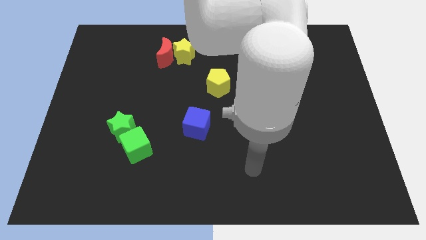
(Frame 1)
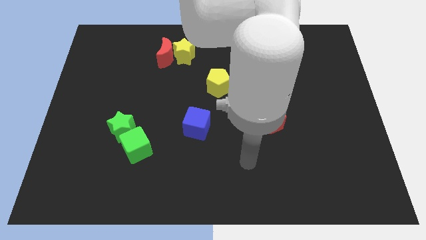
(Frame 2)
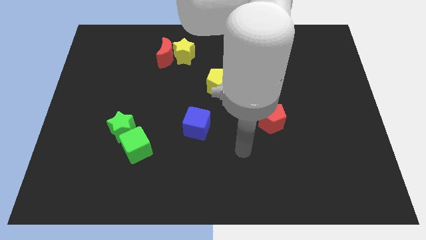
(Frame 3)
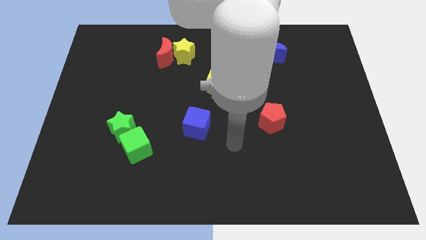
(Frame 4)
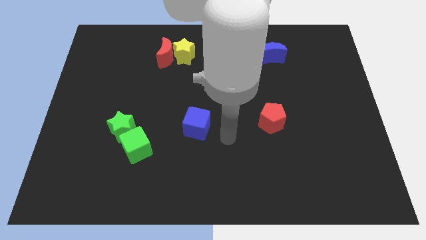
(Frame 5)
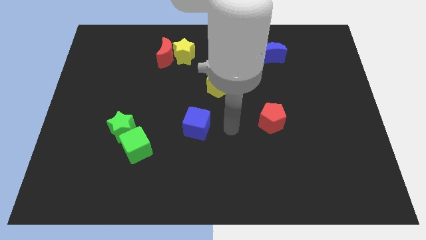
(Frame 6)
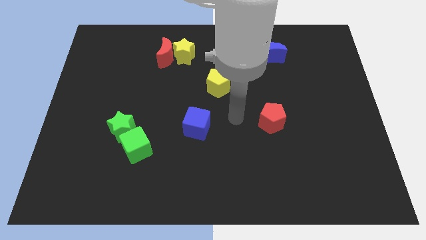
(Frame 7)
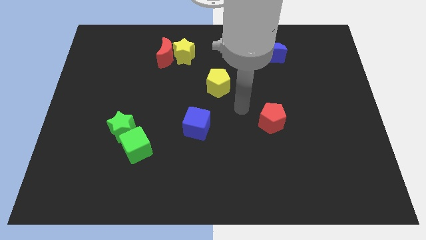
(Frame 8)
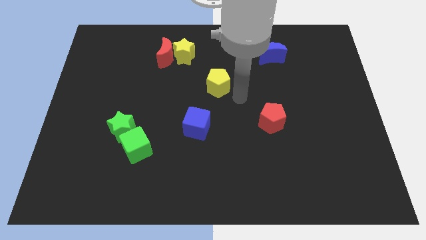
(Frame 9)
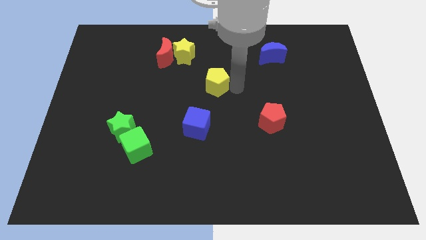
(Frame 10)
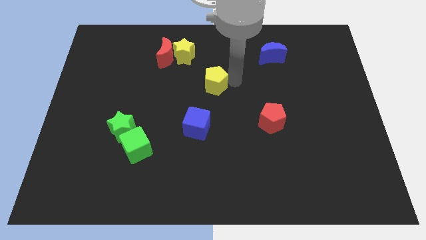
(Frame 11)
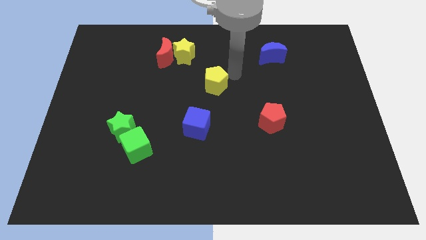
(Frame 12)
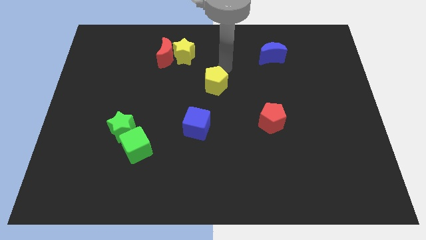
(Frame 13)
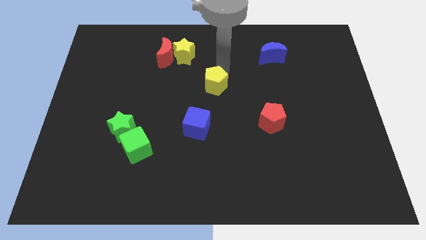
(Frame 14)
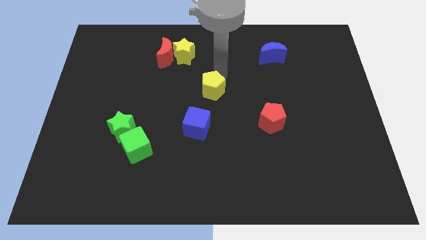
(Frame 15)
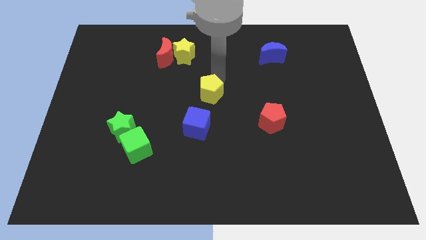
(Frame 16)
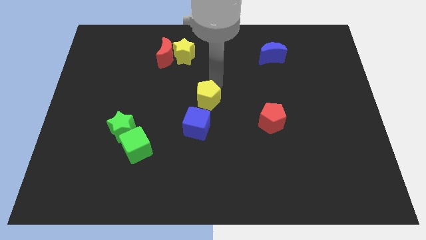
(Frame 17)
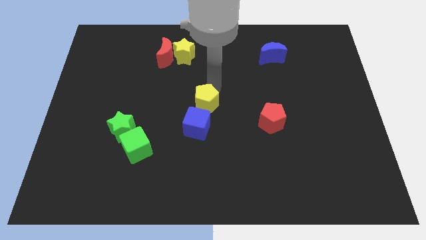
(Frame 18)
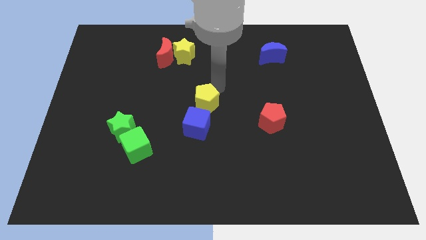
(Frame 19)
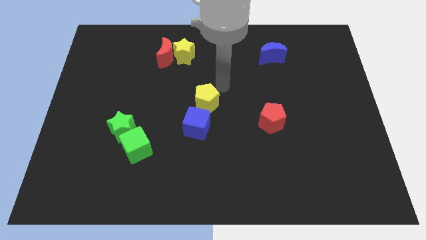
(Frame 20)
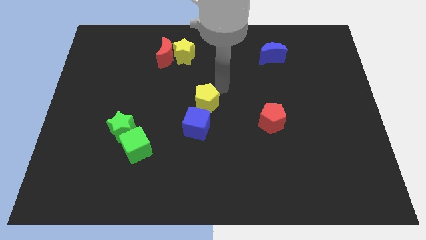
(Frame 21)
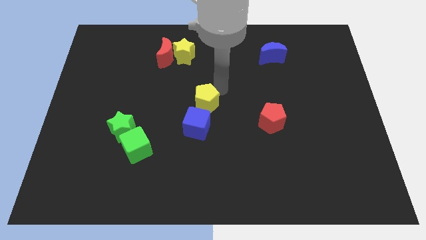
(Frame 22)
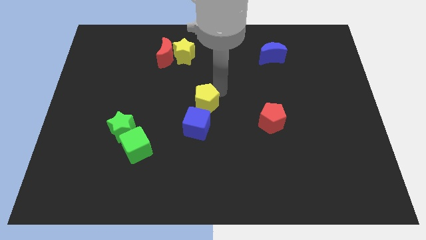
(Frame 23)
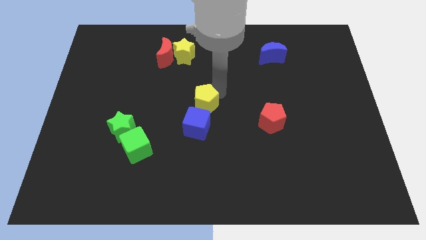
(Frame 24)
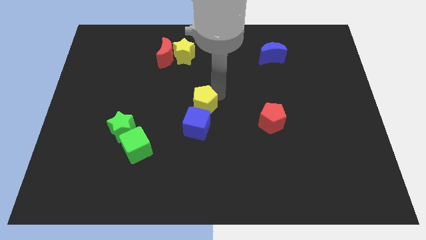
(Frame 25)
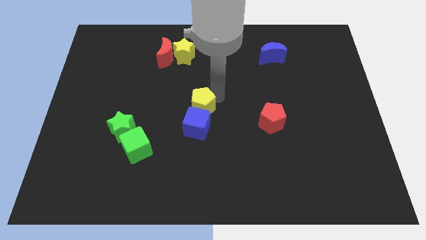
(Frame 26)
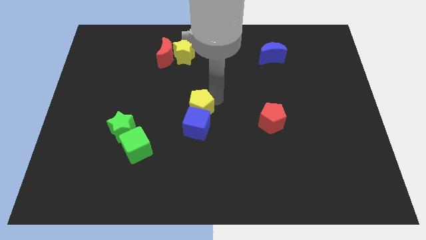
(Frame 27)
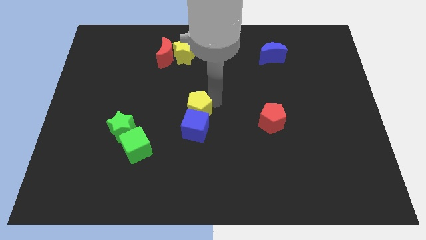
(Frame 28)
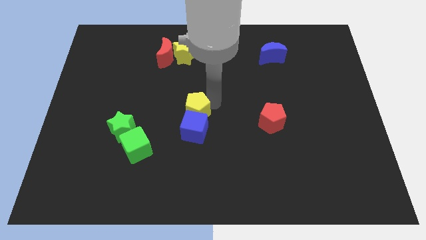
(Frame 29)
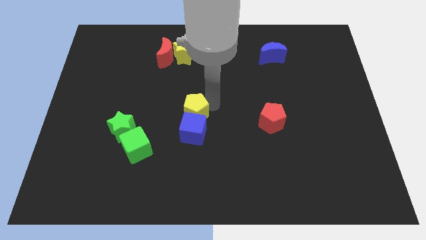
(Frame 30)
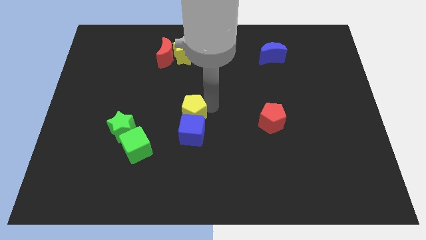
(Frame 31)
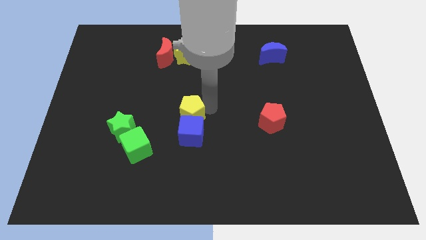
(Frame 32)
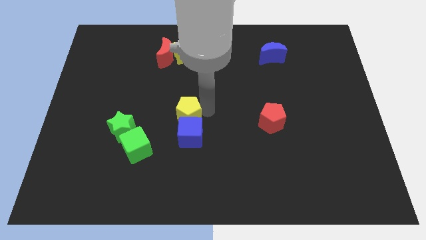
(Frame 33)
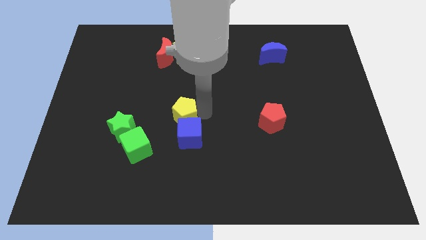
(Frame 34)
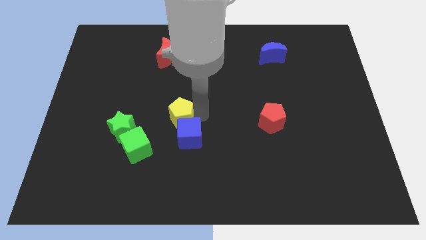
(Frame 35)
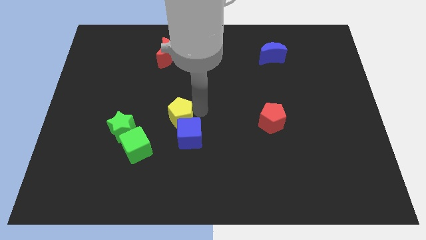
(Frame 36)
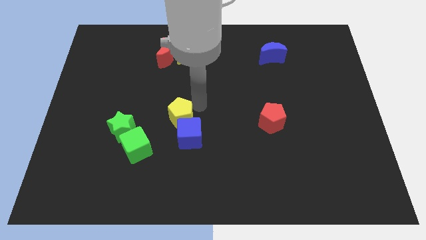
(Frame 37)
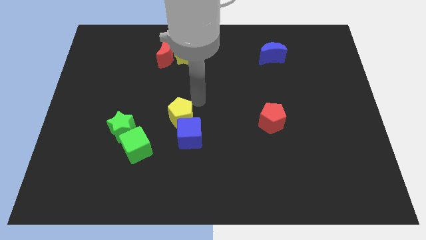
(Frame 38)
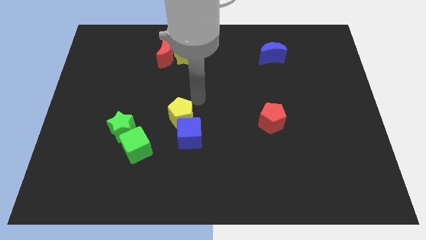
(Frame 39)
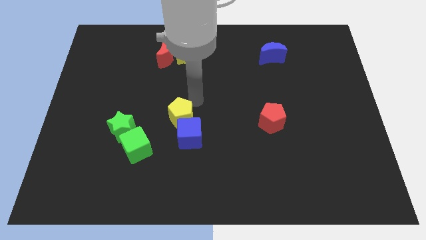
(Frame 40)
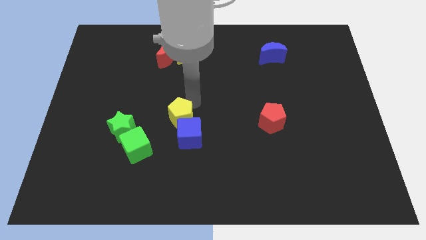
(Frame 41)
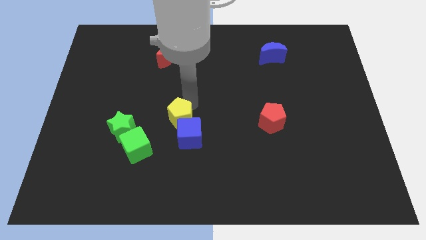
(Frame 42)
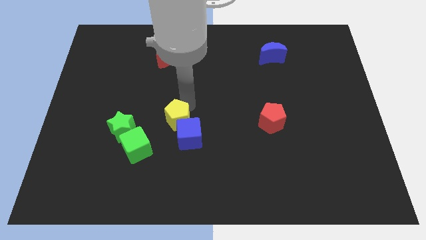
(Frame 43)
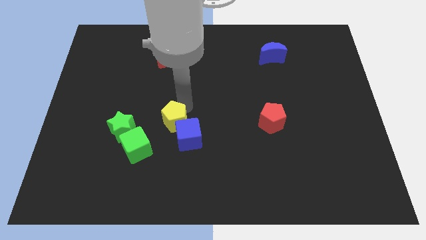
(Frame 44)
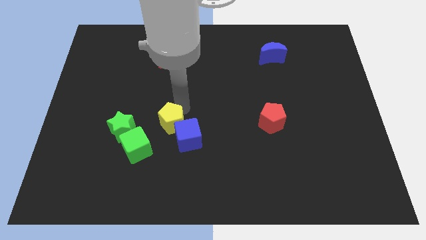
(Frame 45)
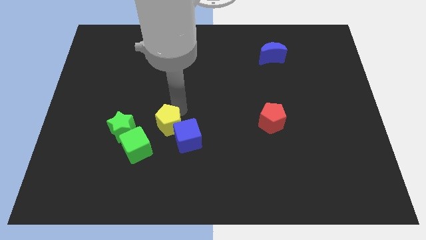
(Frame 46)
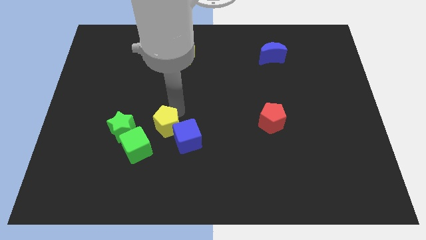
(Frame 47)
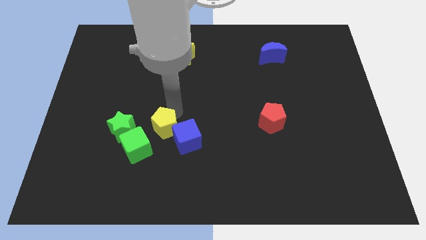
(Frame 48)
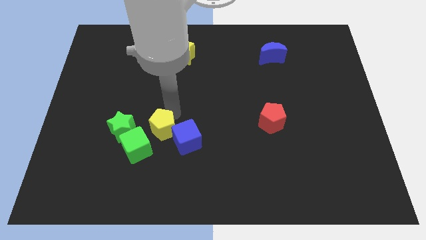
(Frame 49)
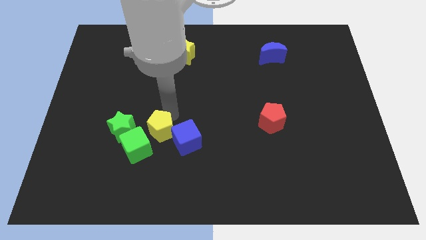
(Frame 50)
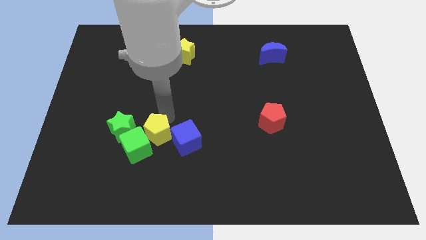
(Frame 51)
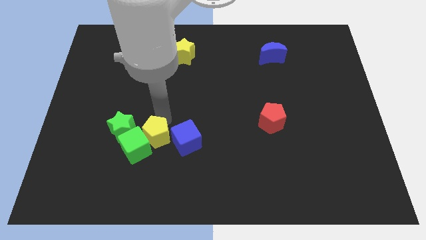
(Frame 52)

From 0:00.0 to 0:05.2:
push the yellow pentagon diagonally downwards and left

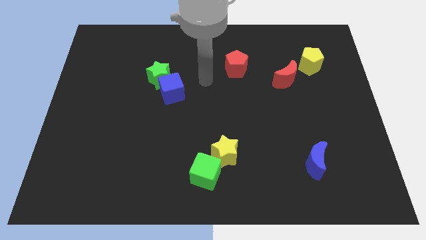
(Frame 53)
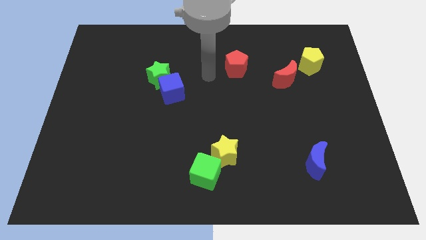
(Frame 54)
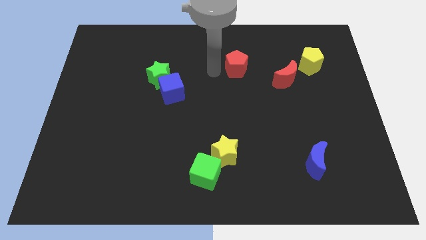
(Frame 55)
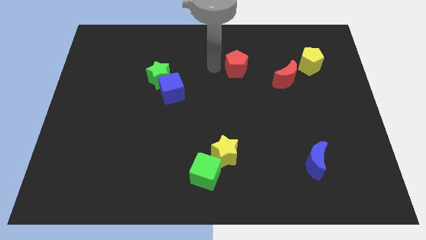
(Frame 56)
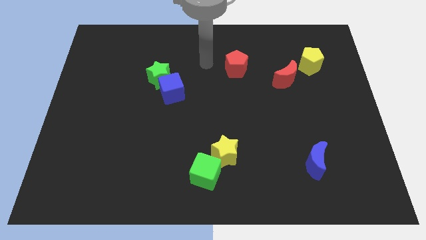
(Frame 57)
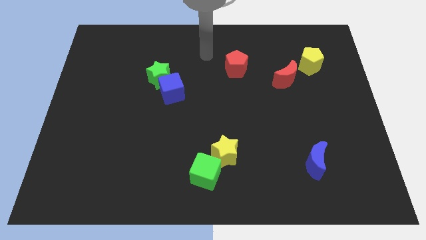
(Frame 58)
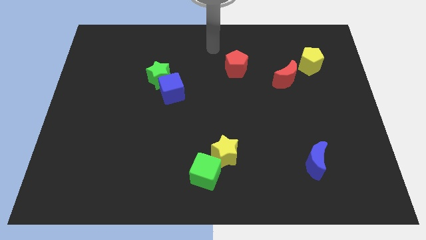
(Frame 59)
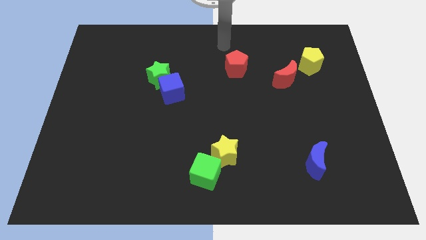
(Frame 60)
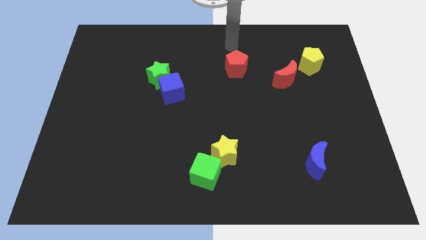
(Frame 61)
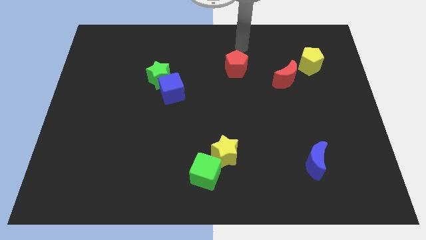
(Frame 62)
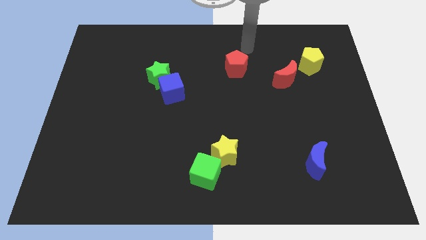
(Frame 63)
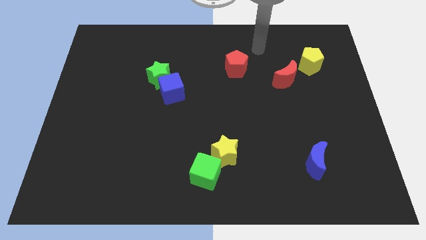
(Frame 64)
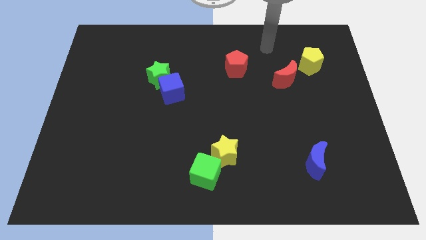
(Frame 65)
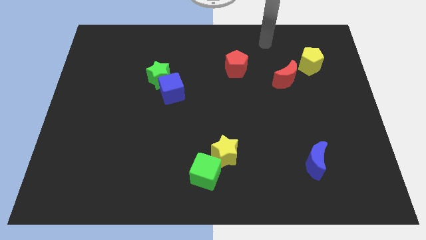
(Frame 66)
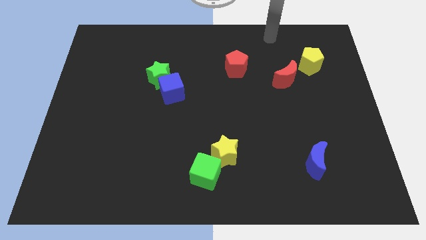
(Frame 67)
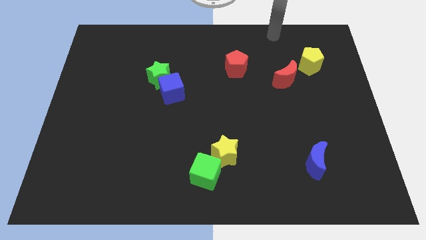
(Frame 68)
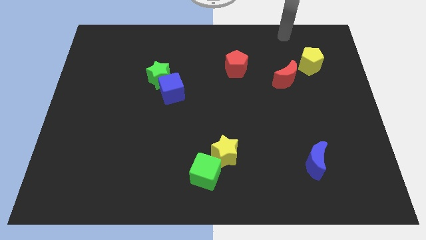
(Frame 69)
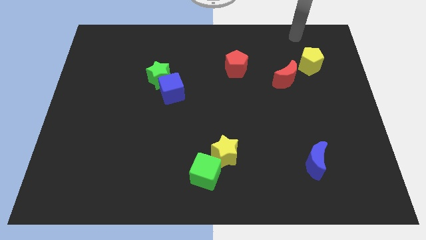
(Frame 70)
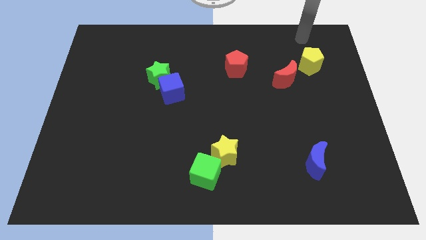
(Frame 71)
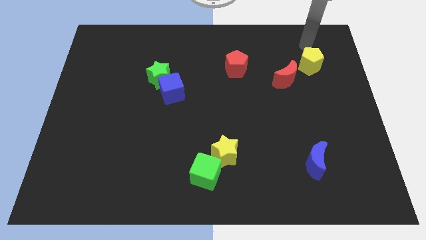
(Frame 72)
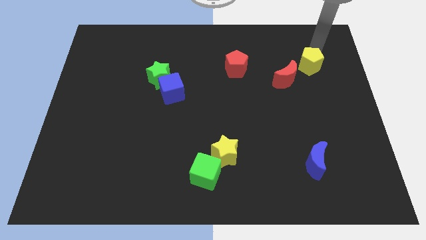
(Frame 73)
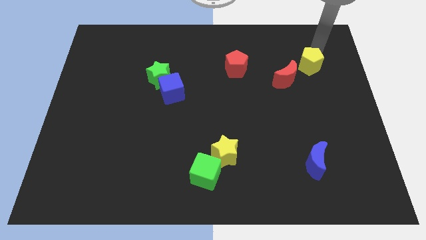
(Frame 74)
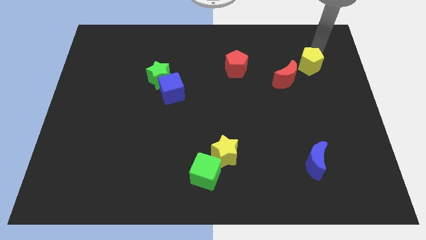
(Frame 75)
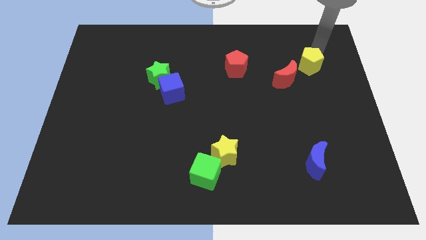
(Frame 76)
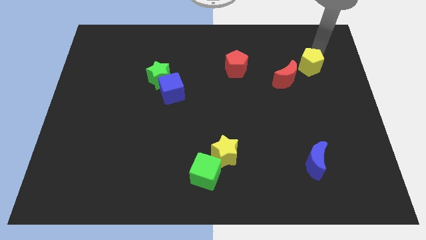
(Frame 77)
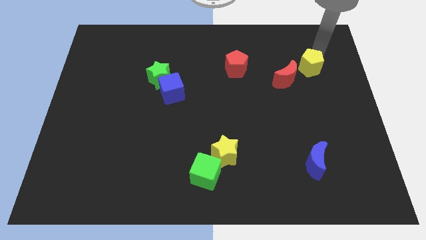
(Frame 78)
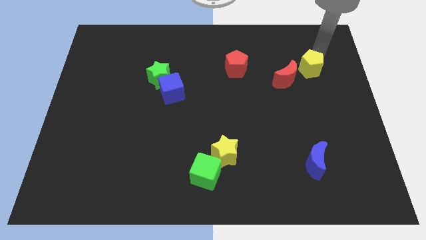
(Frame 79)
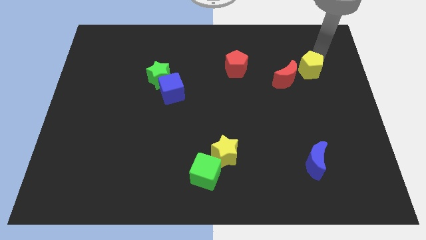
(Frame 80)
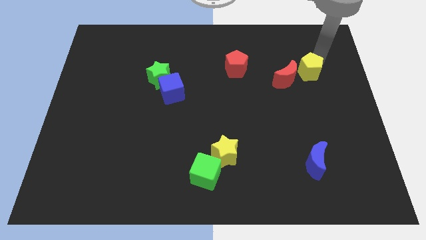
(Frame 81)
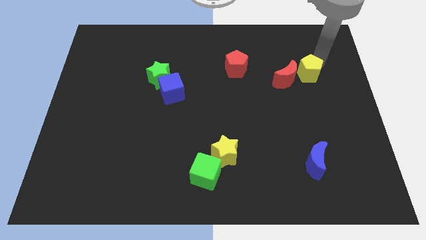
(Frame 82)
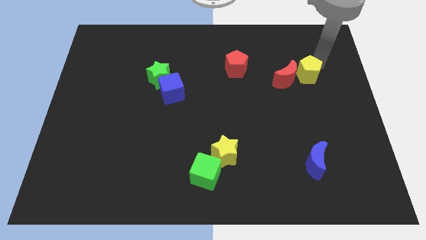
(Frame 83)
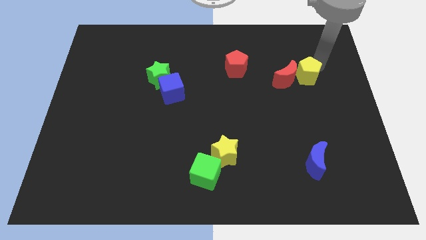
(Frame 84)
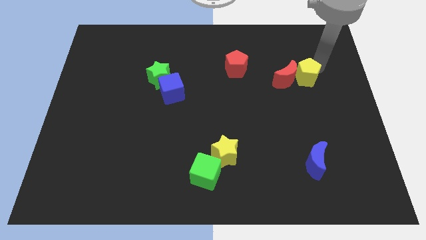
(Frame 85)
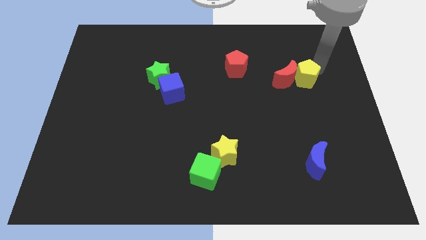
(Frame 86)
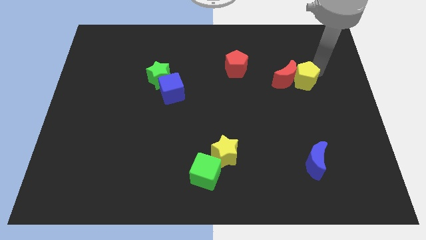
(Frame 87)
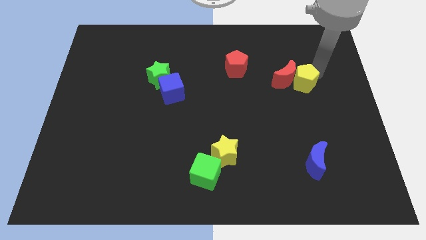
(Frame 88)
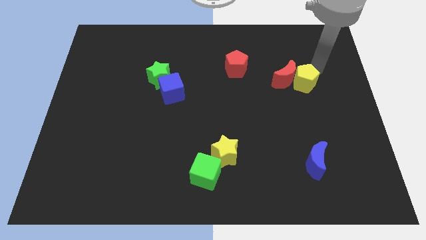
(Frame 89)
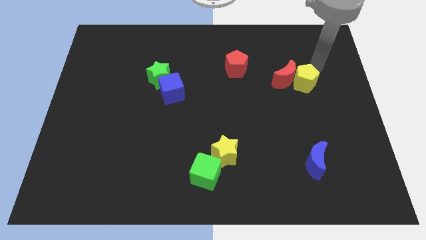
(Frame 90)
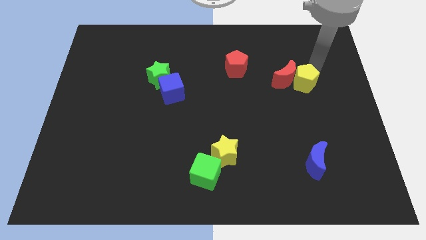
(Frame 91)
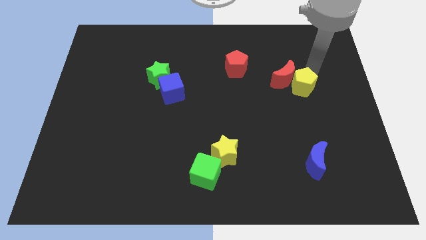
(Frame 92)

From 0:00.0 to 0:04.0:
slide the yellow pentagon somewhat downwards and to the left
